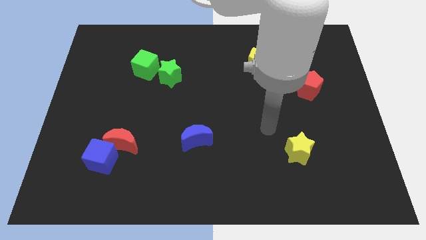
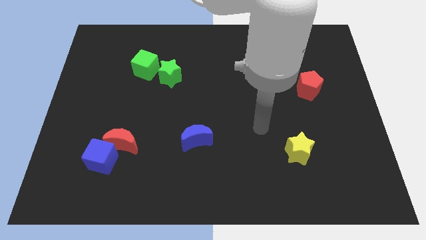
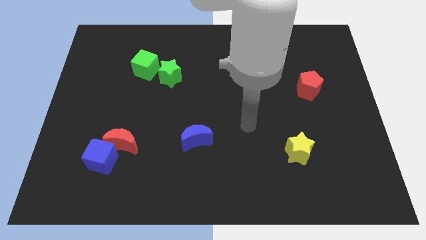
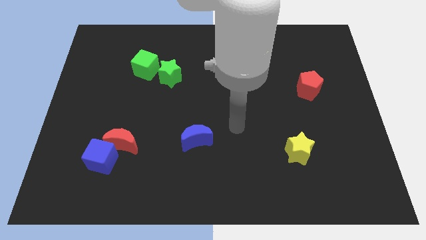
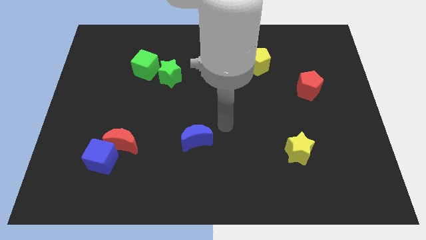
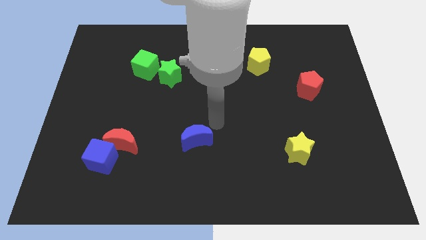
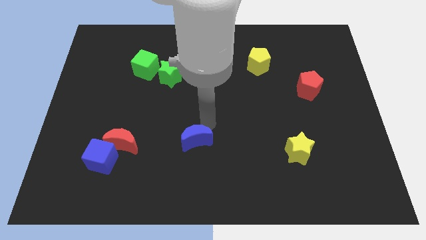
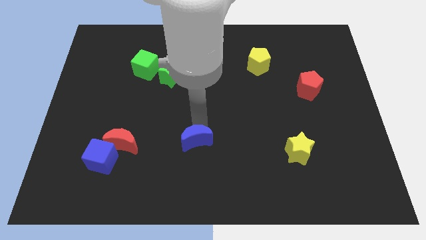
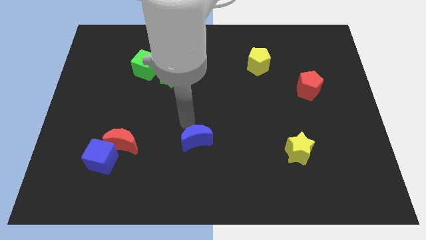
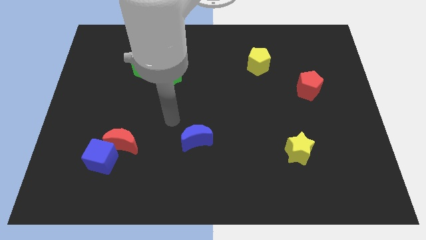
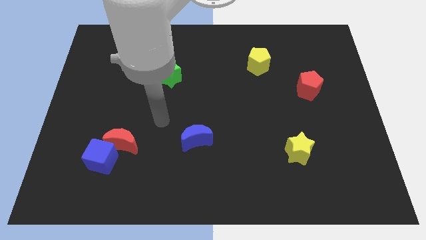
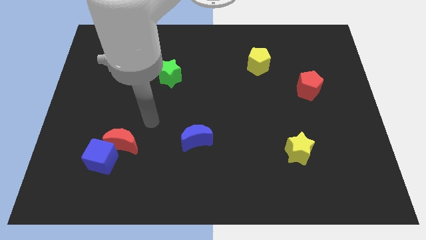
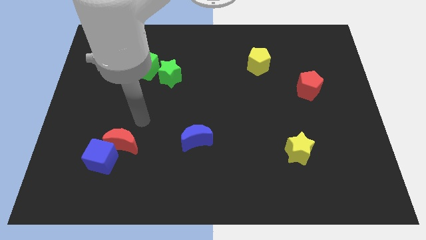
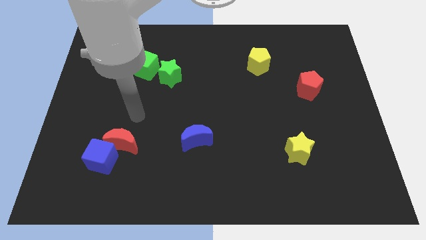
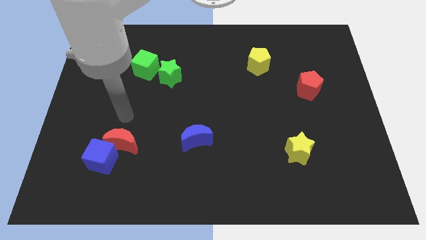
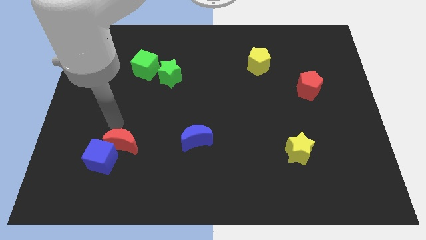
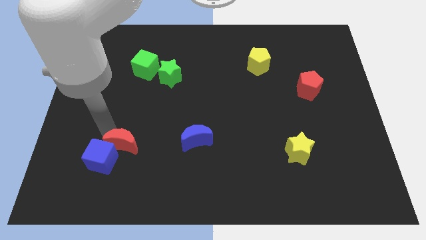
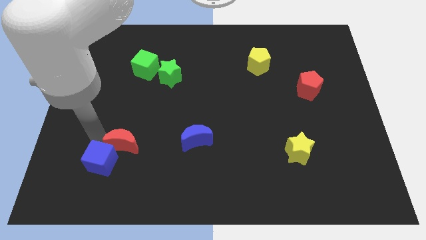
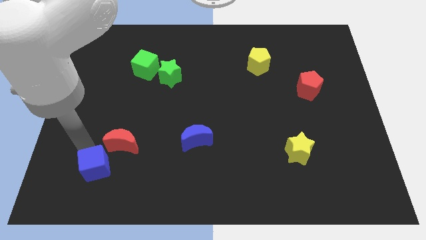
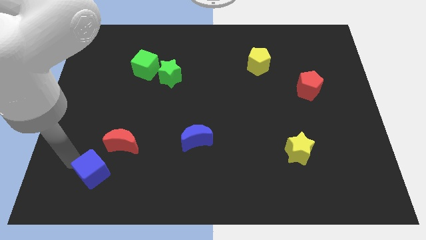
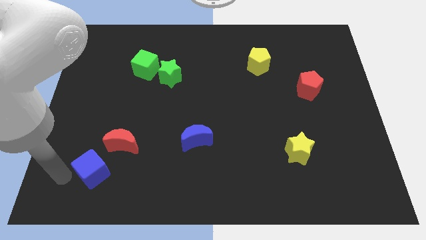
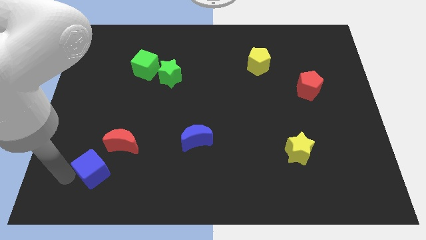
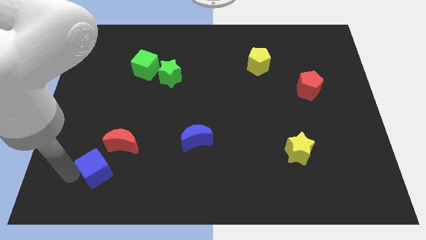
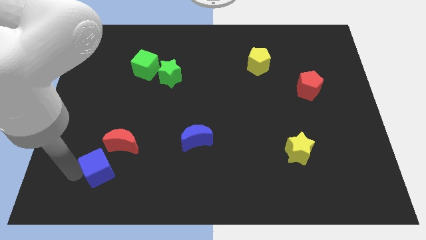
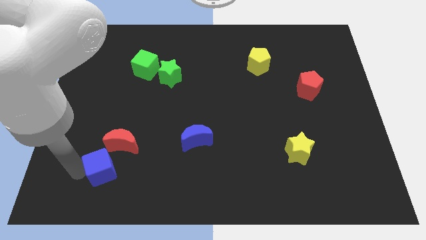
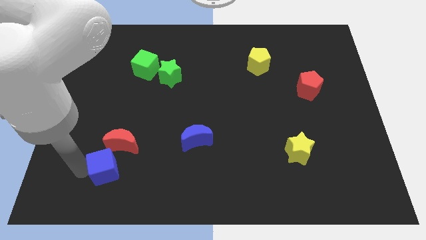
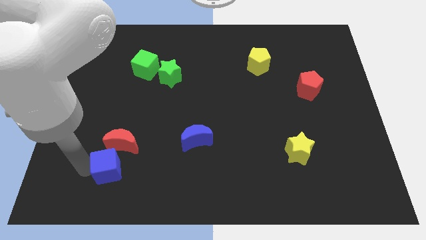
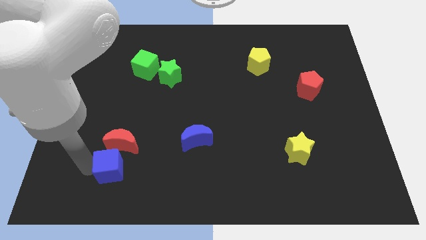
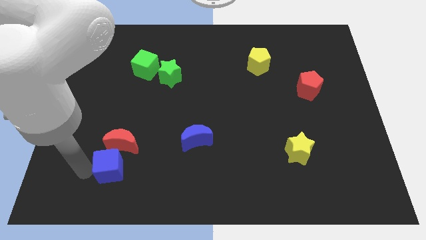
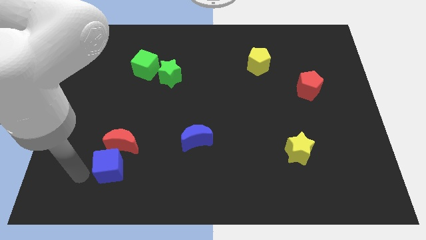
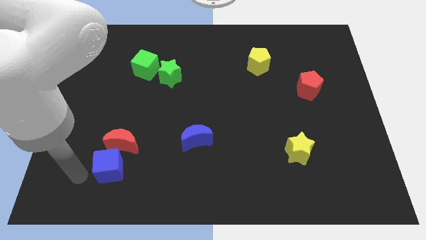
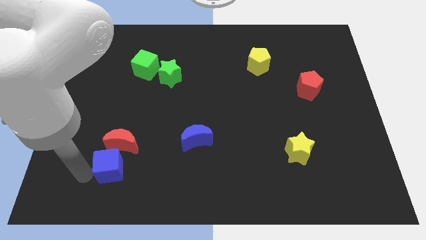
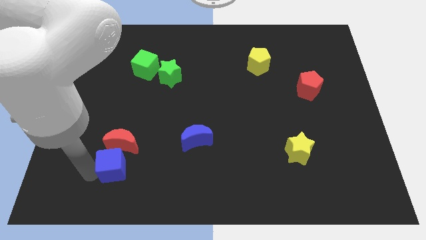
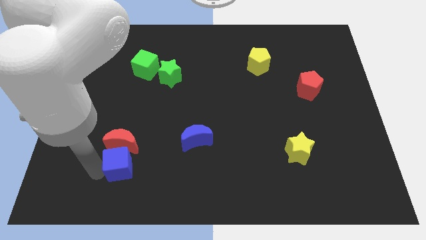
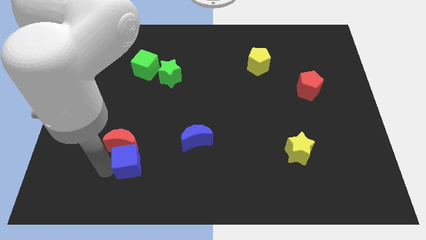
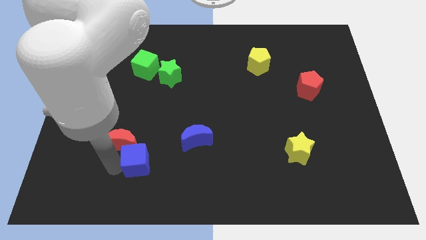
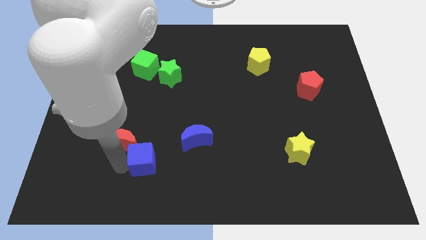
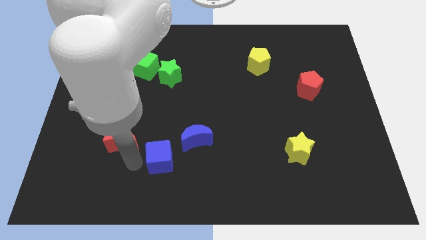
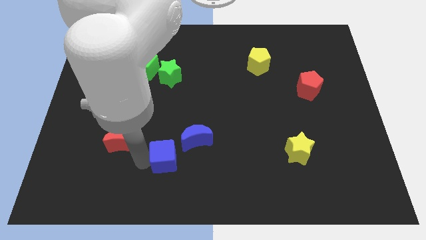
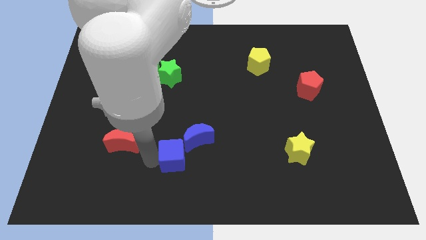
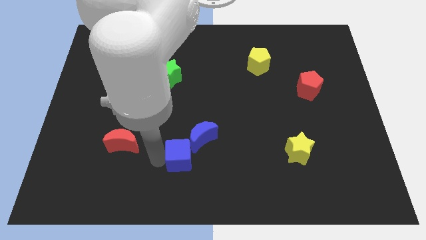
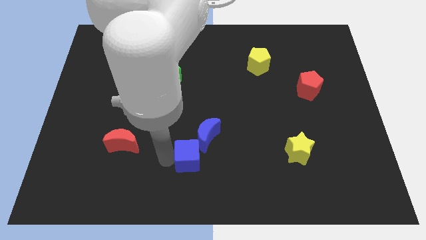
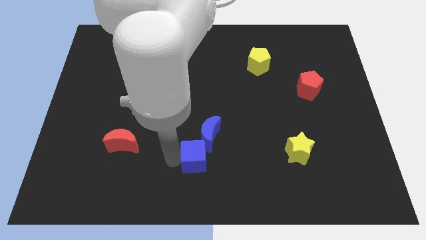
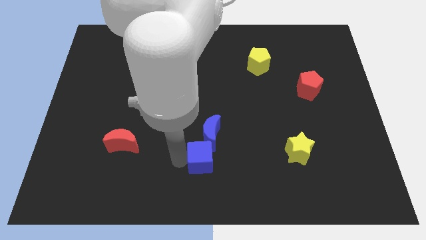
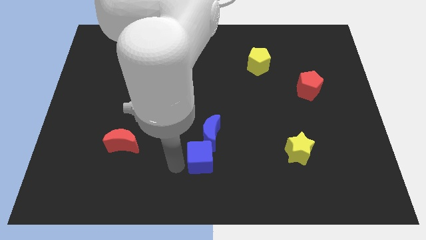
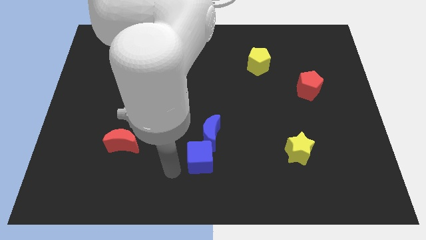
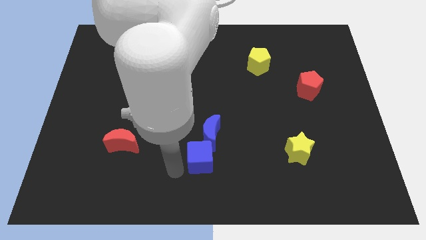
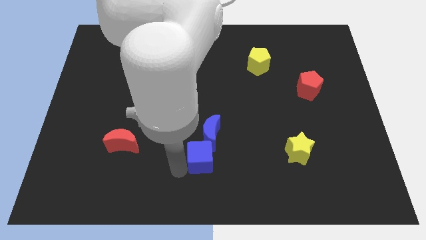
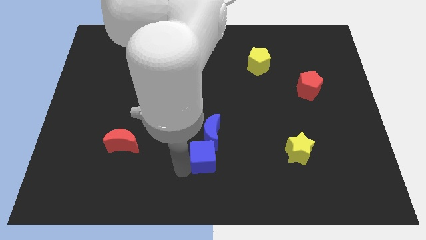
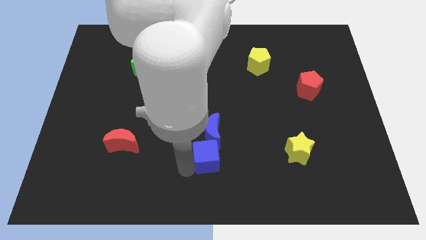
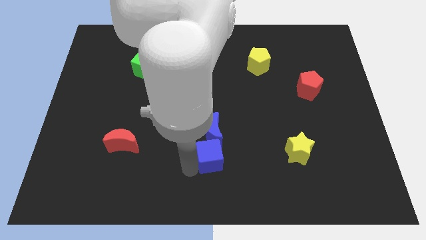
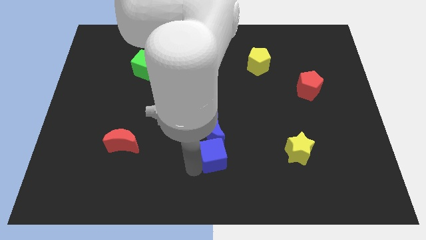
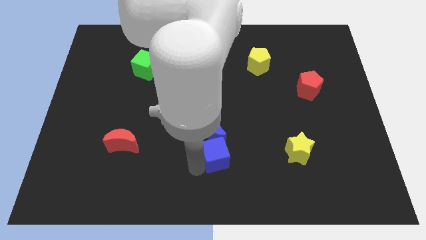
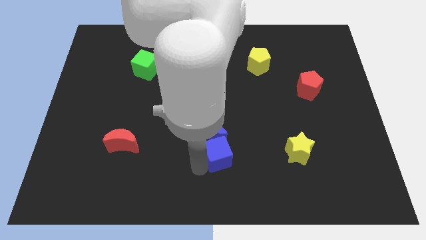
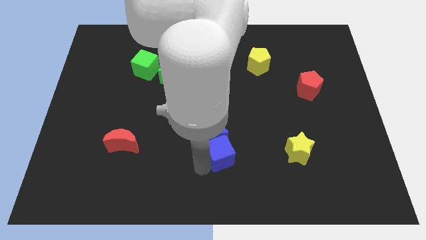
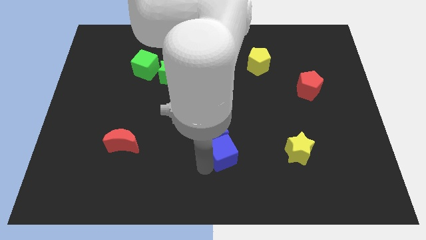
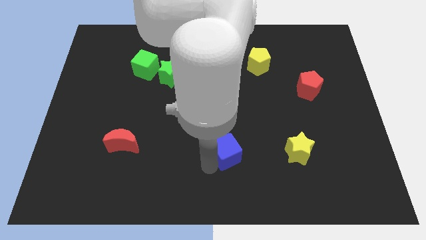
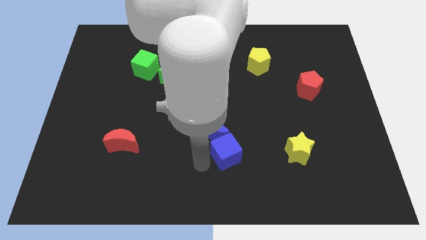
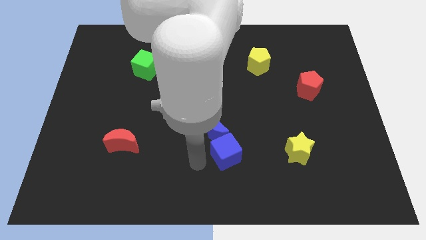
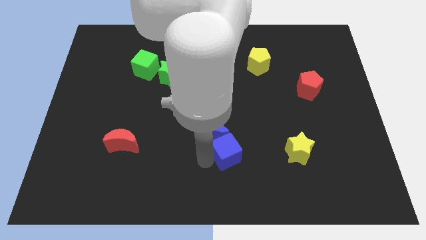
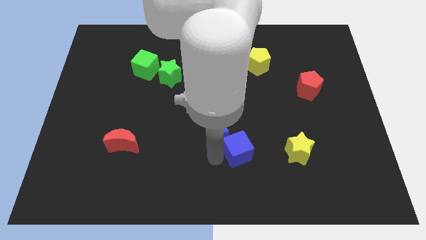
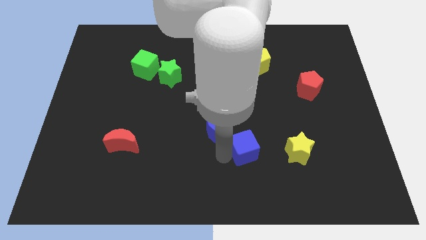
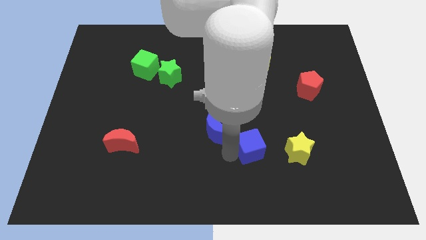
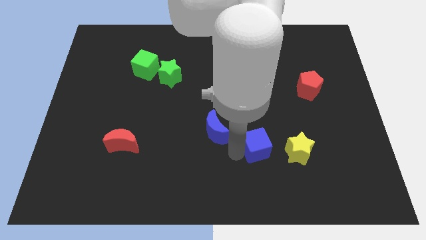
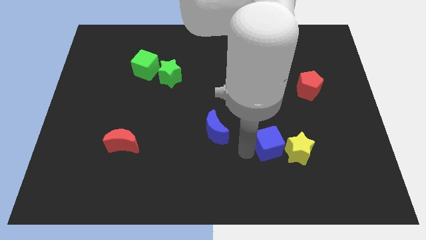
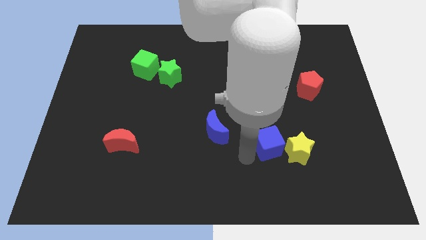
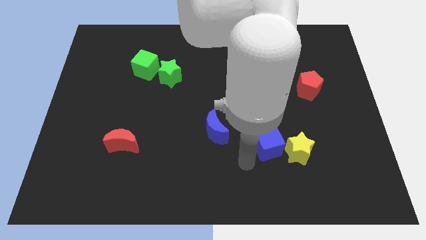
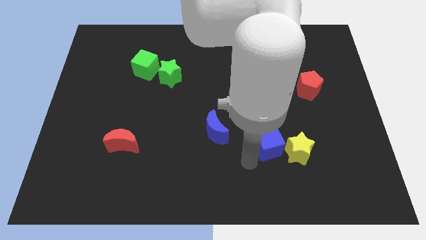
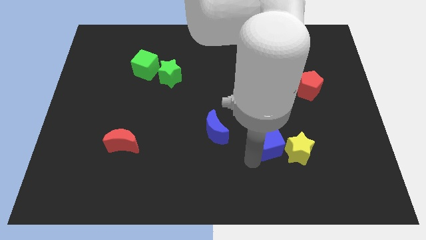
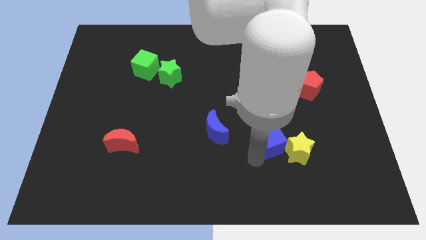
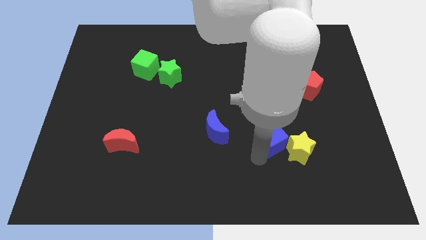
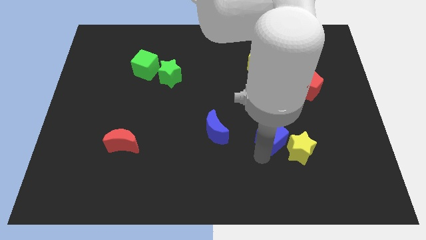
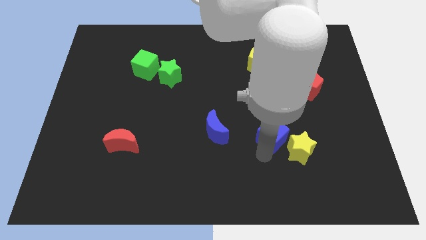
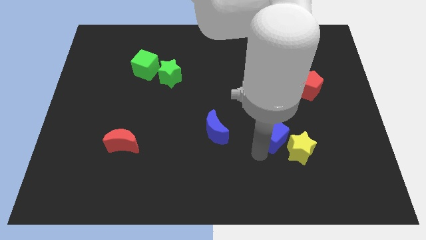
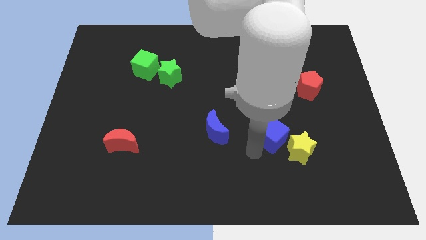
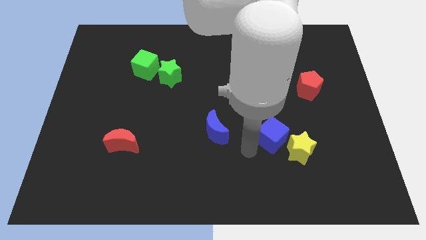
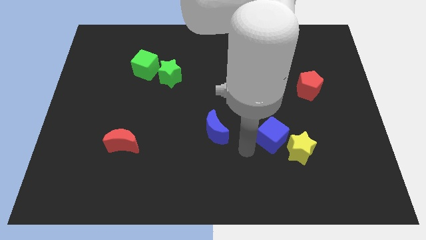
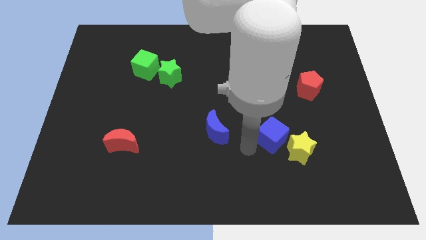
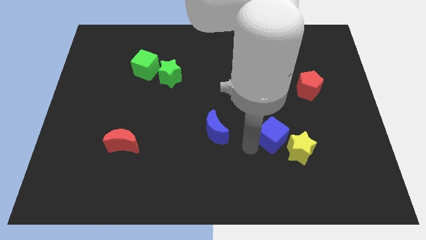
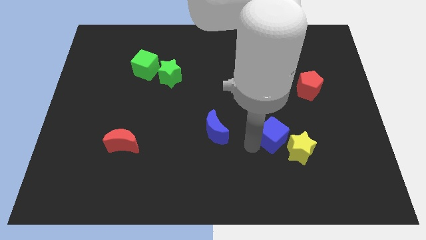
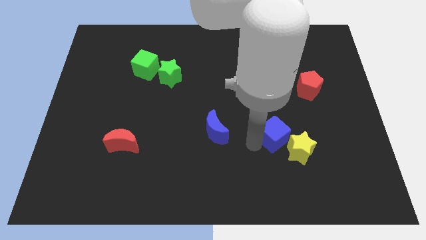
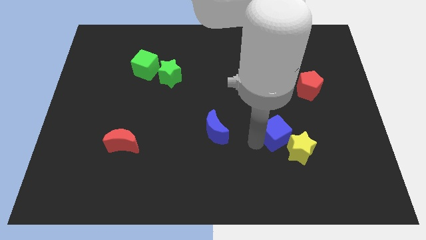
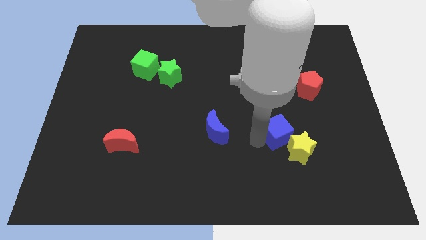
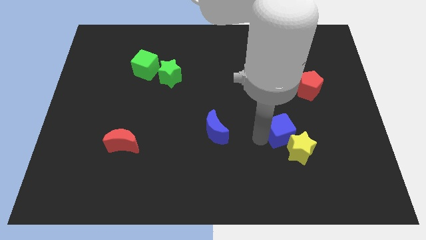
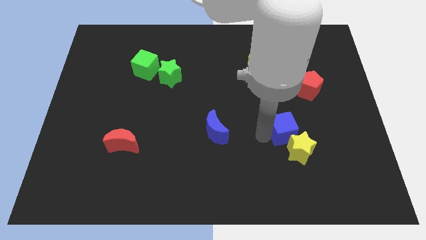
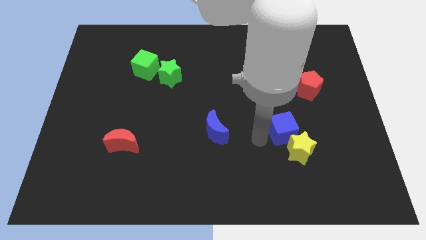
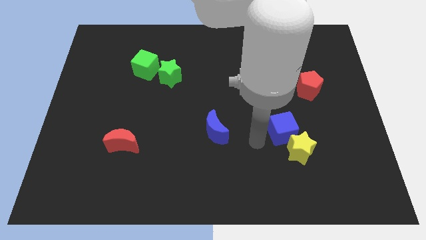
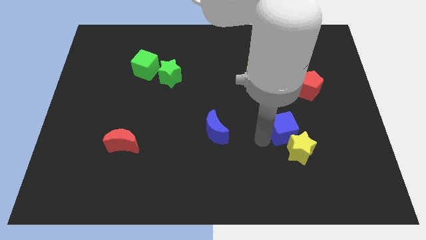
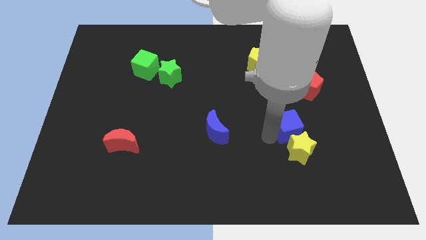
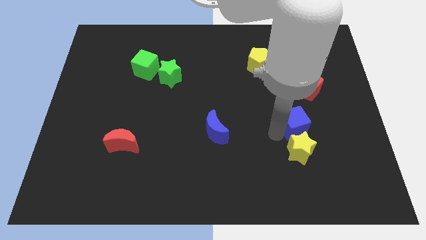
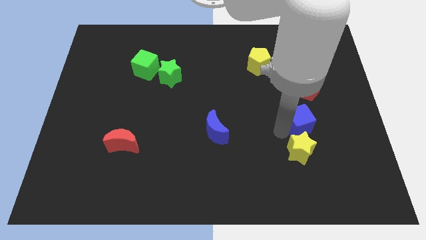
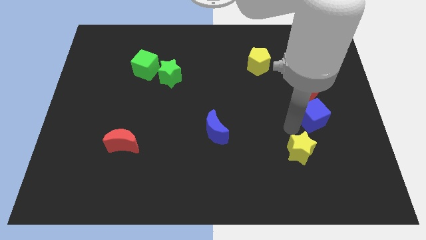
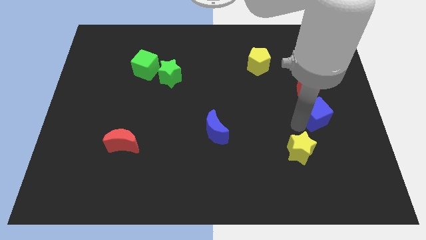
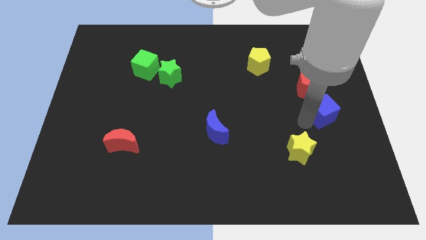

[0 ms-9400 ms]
move the blue cube to the bottom right side of the red pentagon
